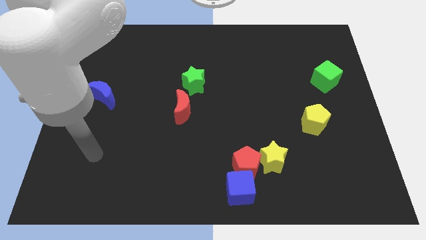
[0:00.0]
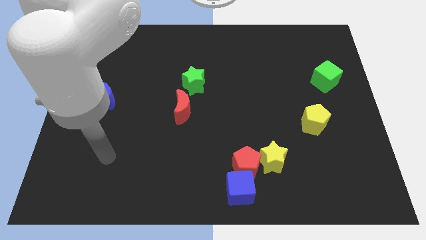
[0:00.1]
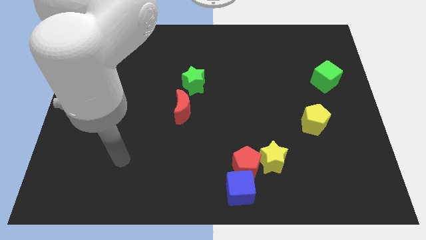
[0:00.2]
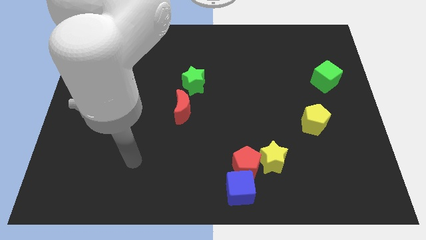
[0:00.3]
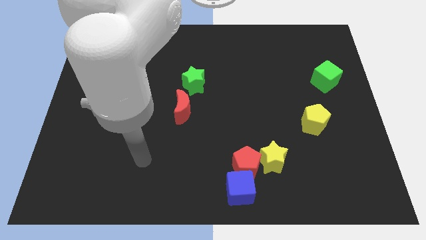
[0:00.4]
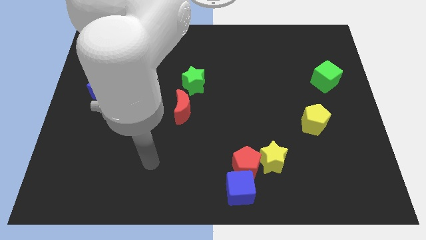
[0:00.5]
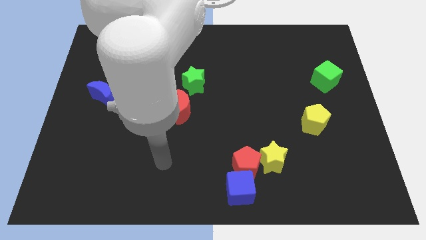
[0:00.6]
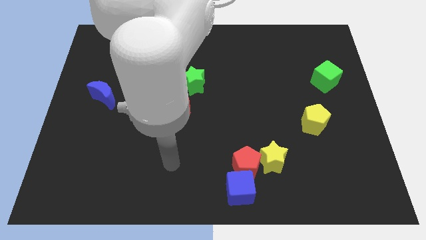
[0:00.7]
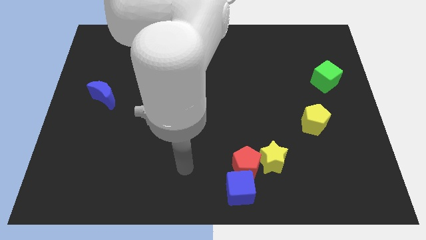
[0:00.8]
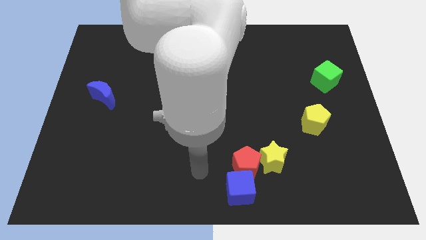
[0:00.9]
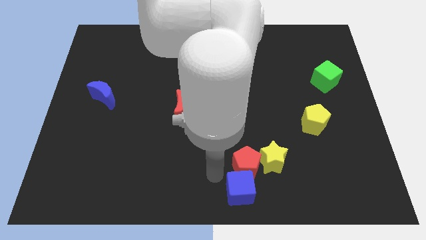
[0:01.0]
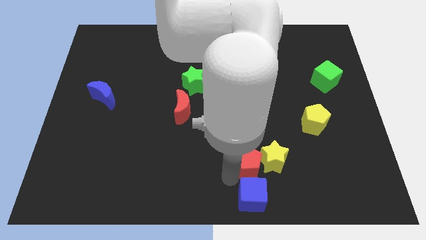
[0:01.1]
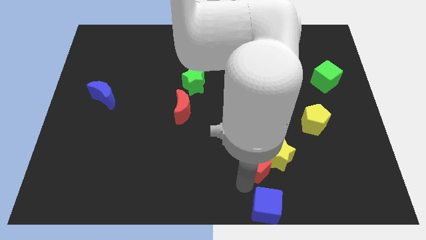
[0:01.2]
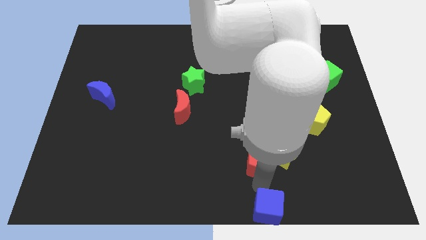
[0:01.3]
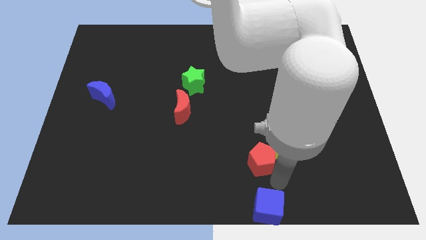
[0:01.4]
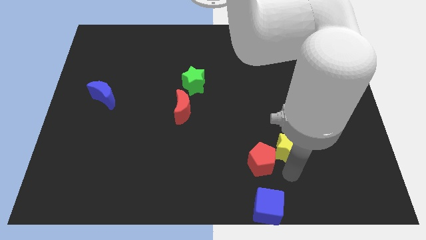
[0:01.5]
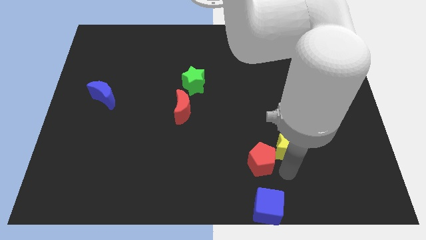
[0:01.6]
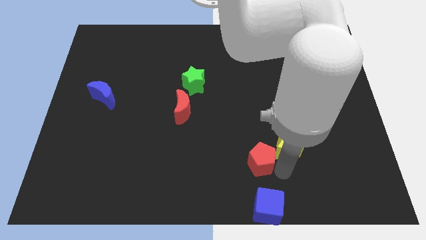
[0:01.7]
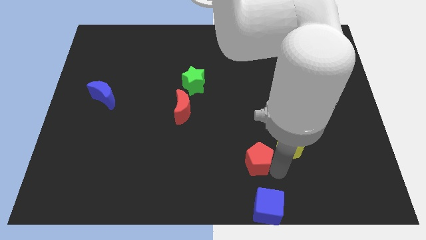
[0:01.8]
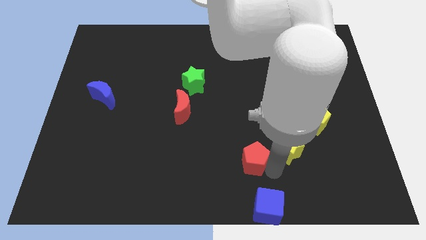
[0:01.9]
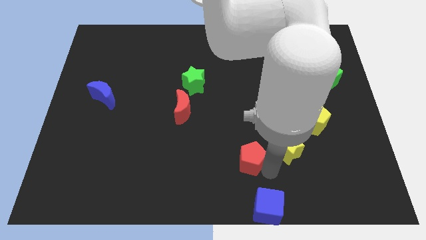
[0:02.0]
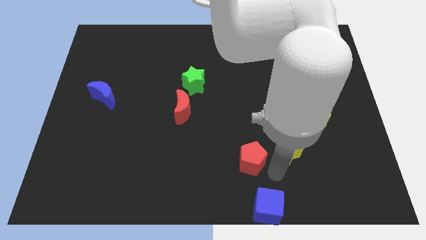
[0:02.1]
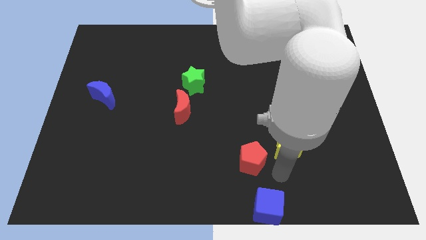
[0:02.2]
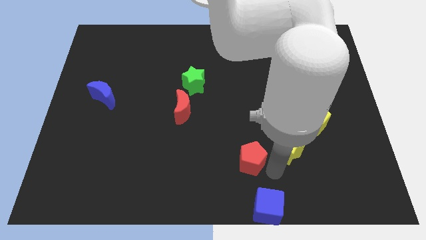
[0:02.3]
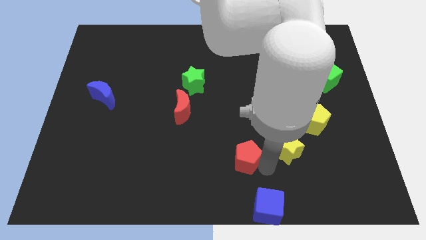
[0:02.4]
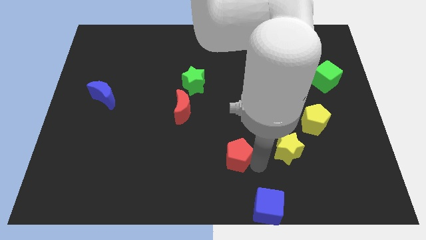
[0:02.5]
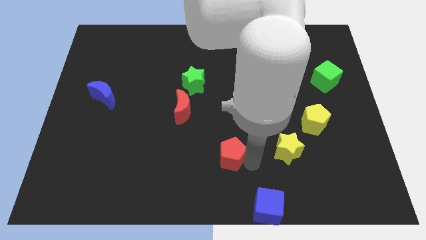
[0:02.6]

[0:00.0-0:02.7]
pull the red pentagon apart from the blue cube and yellow star

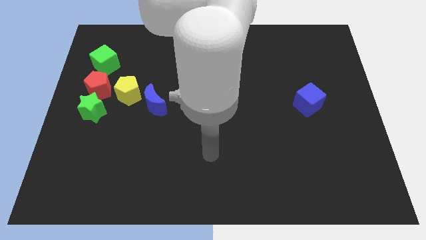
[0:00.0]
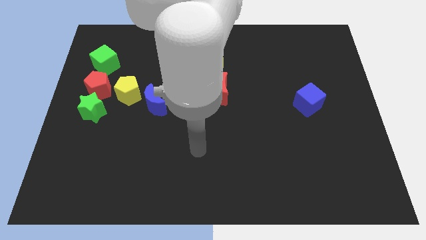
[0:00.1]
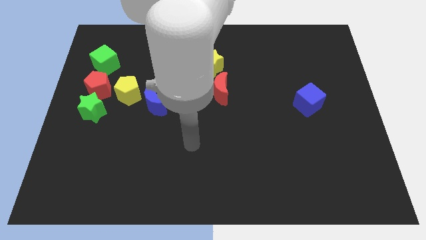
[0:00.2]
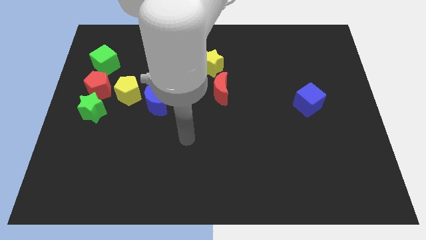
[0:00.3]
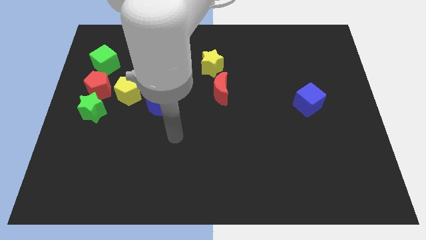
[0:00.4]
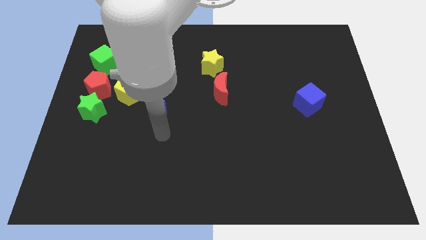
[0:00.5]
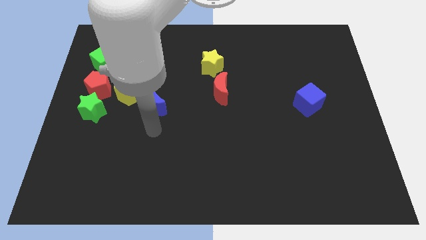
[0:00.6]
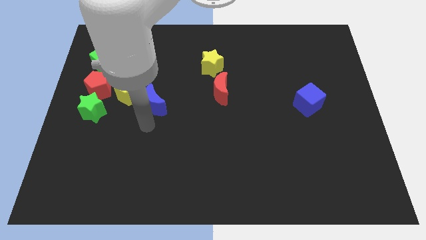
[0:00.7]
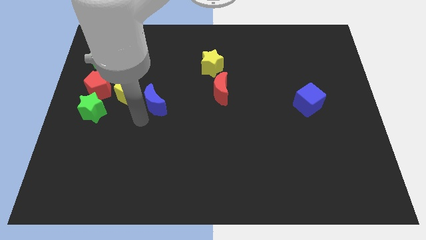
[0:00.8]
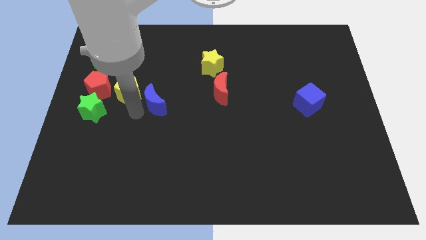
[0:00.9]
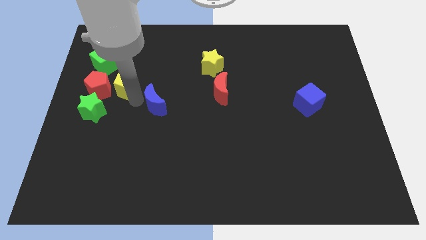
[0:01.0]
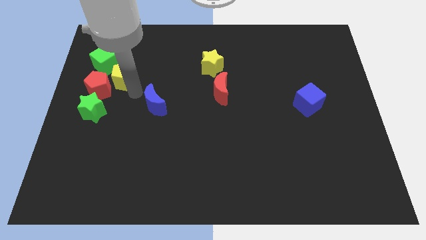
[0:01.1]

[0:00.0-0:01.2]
move the blue moon away from the yellow pentagon

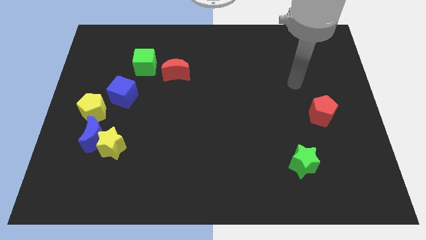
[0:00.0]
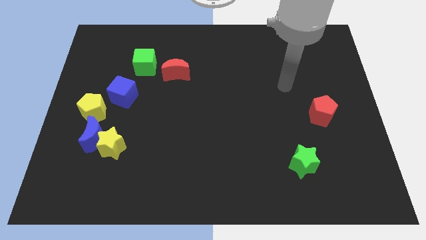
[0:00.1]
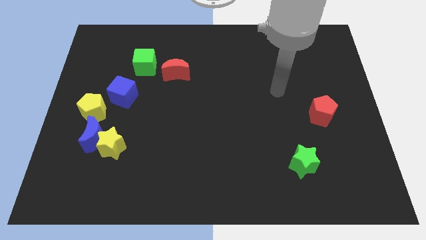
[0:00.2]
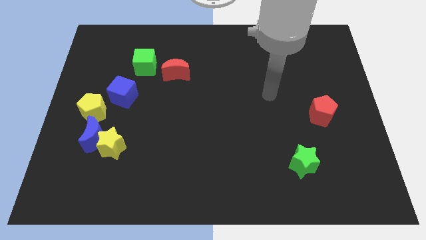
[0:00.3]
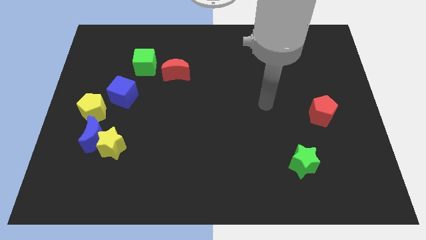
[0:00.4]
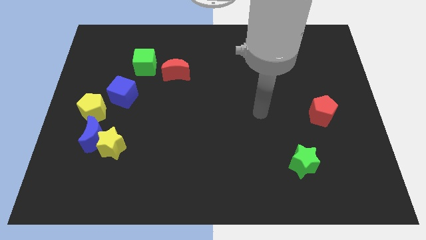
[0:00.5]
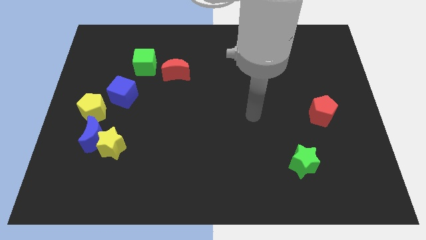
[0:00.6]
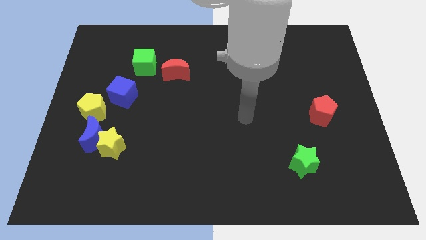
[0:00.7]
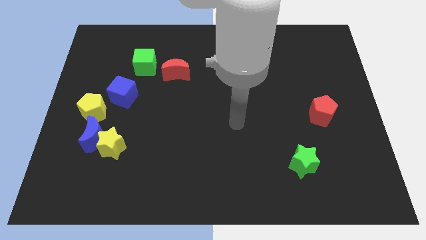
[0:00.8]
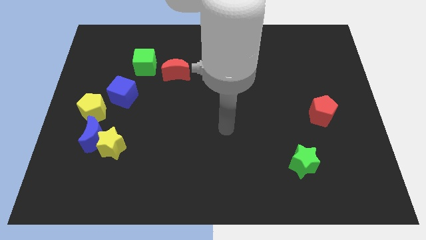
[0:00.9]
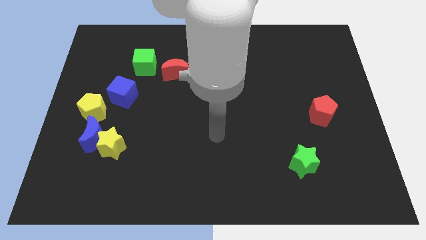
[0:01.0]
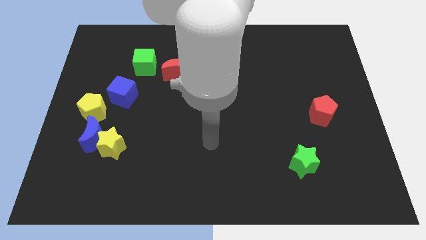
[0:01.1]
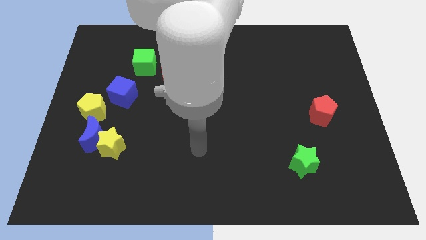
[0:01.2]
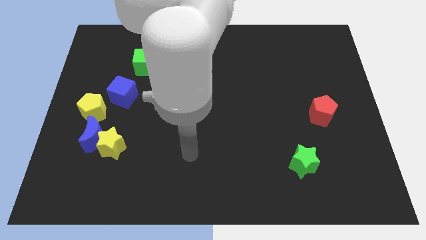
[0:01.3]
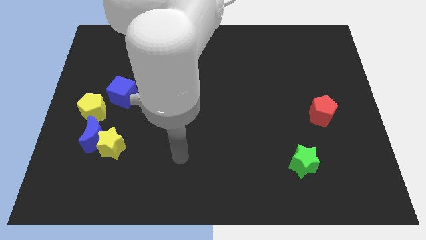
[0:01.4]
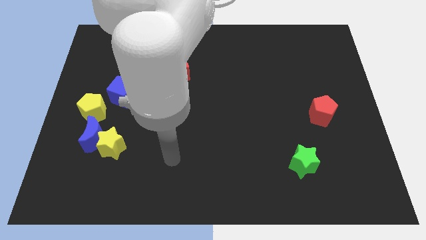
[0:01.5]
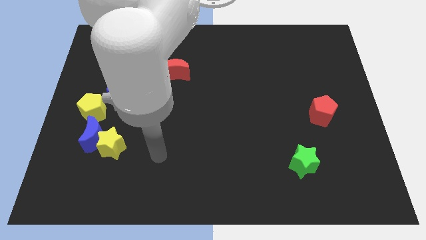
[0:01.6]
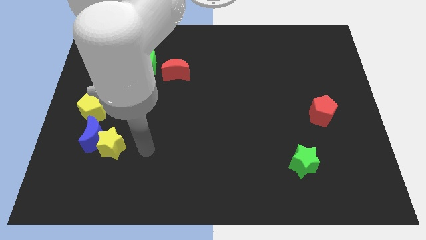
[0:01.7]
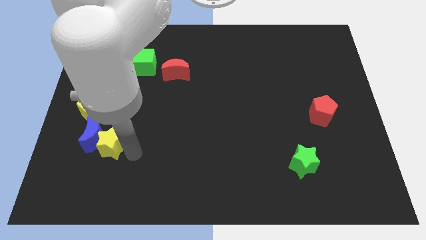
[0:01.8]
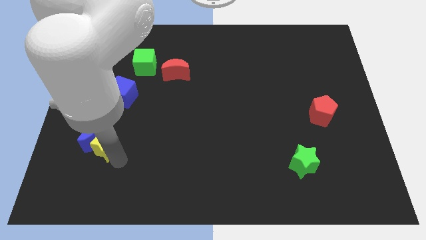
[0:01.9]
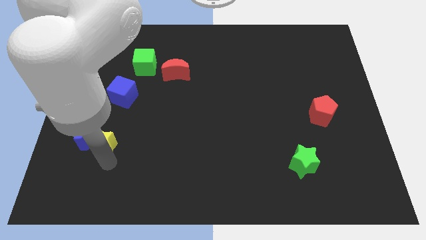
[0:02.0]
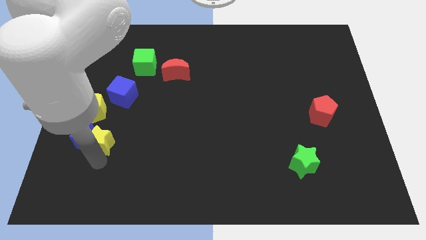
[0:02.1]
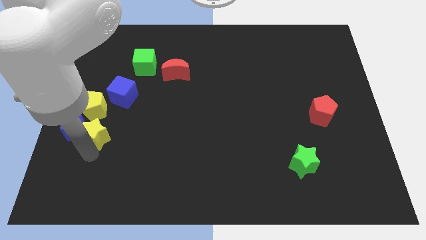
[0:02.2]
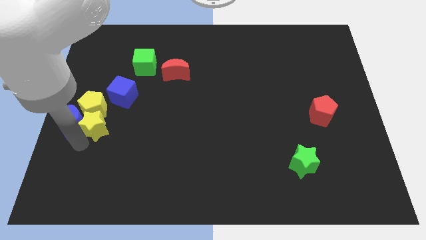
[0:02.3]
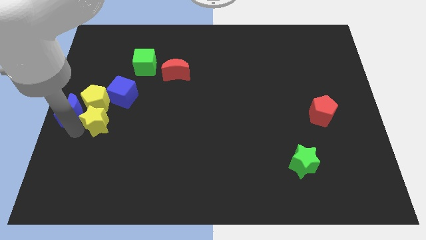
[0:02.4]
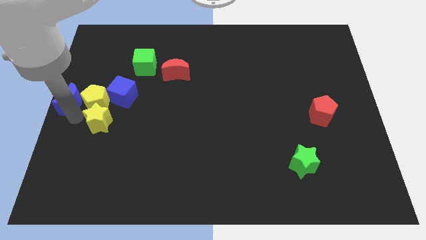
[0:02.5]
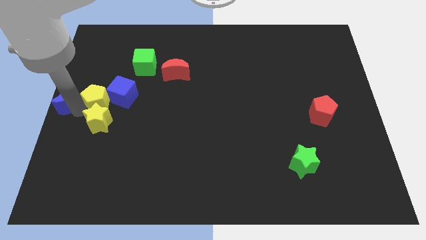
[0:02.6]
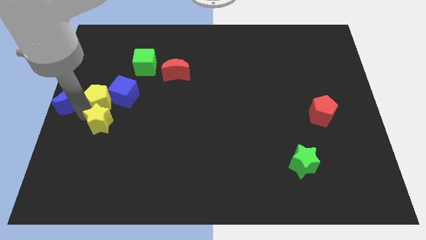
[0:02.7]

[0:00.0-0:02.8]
pull the yellow star apart from the blue moon

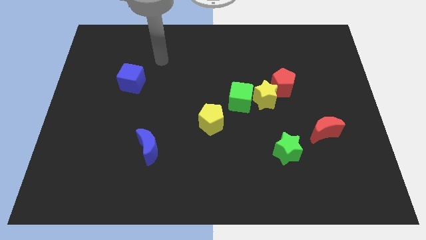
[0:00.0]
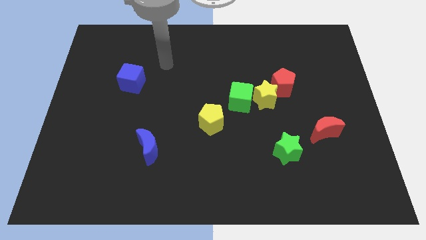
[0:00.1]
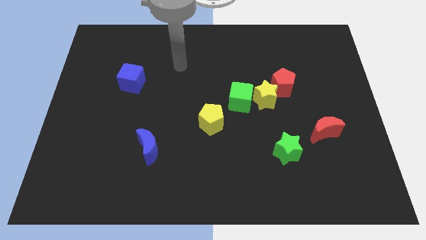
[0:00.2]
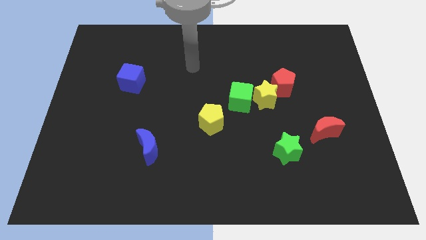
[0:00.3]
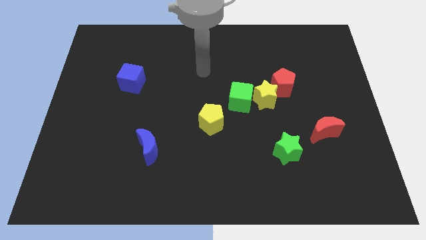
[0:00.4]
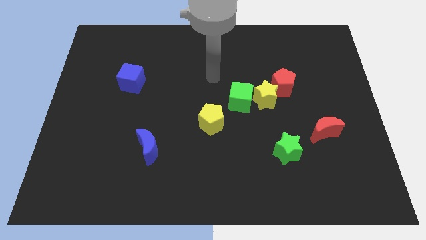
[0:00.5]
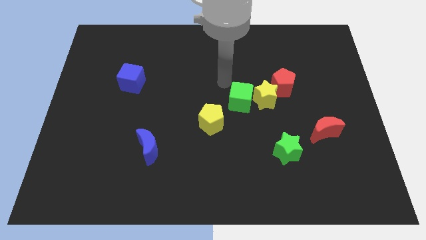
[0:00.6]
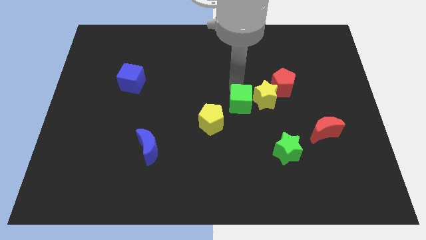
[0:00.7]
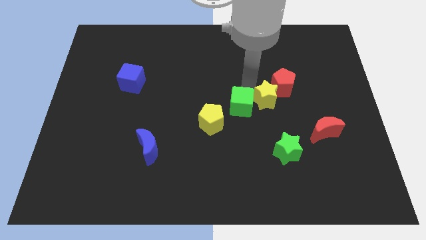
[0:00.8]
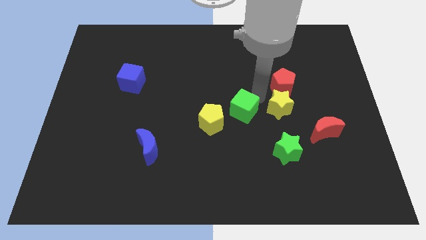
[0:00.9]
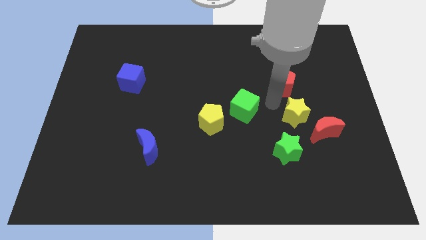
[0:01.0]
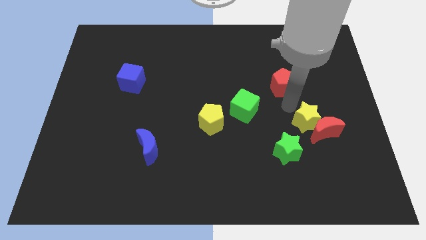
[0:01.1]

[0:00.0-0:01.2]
pull the red pentagon apart from the yellow star

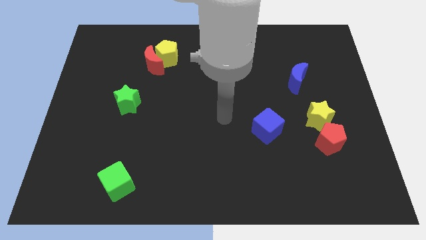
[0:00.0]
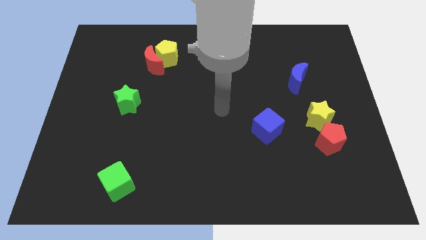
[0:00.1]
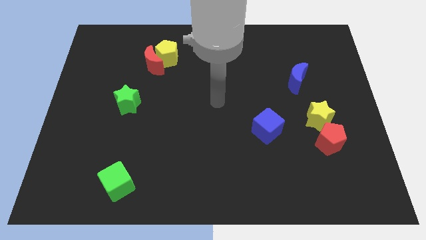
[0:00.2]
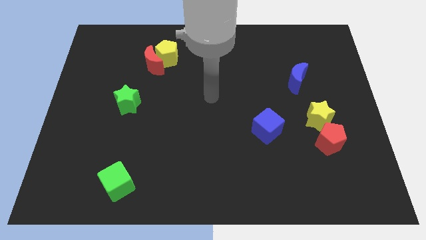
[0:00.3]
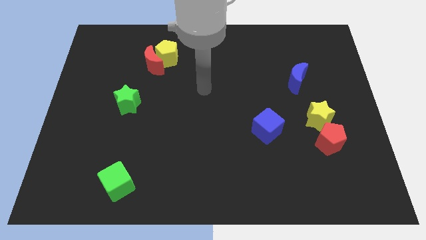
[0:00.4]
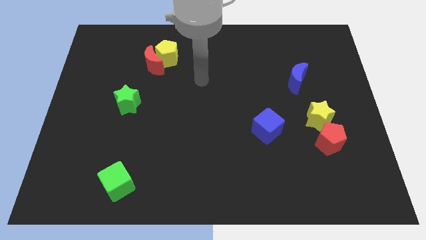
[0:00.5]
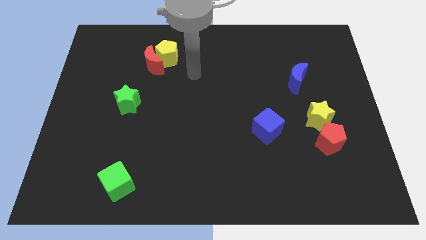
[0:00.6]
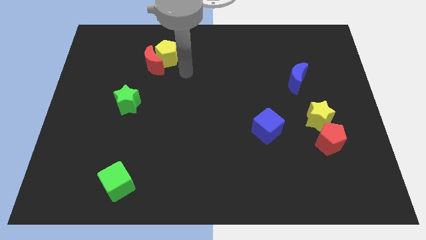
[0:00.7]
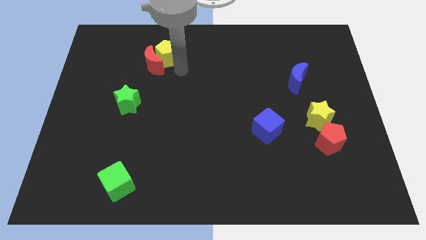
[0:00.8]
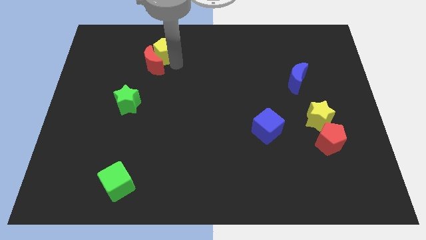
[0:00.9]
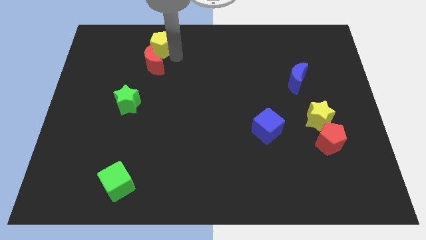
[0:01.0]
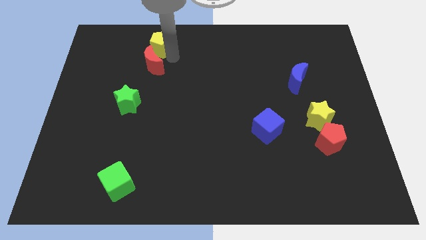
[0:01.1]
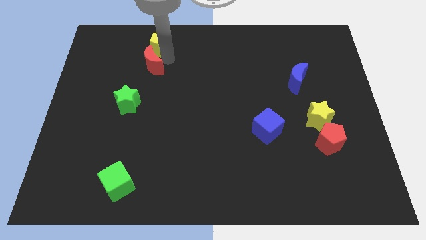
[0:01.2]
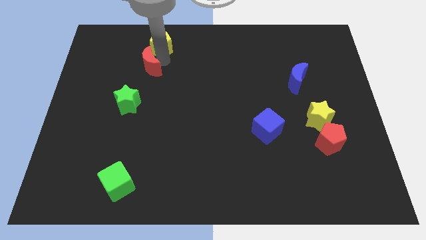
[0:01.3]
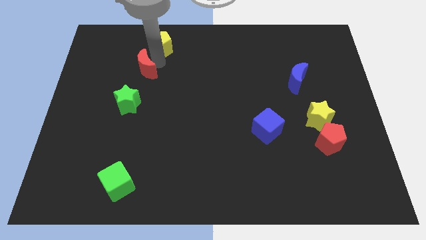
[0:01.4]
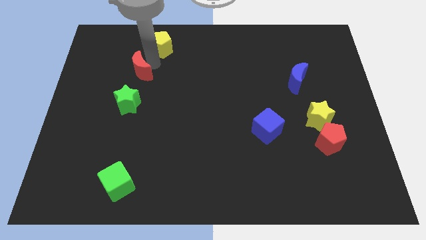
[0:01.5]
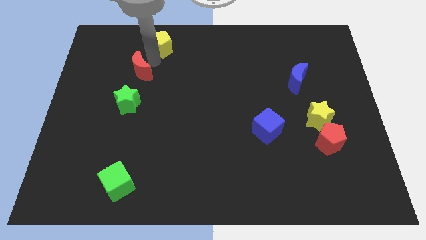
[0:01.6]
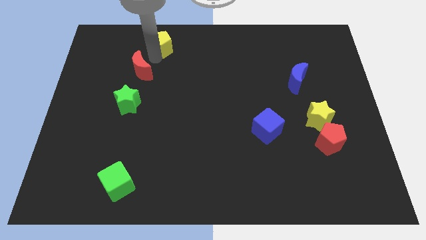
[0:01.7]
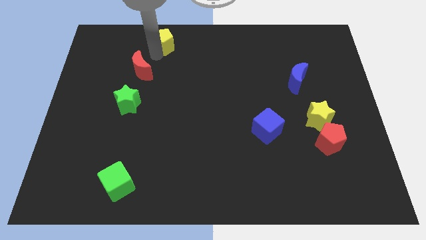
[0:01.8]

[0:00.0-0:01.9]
pull the red moon apart from the yellow pentagon
